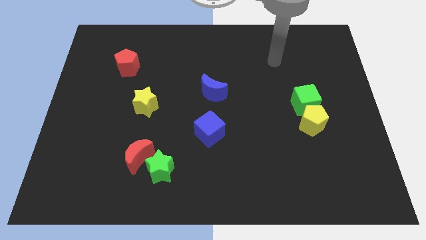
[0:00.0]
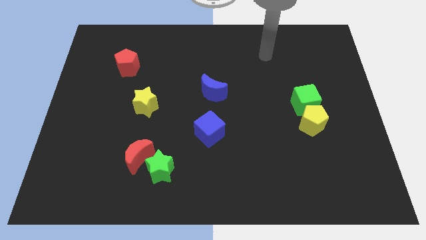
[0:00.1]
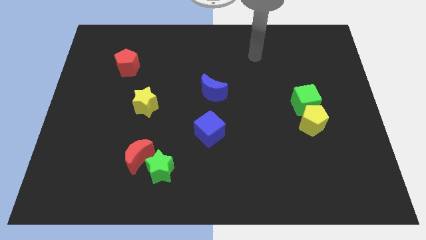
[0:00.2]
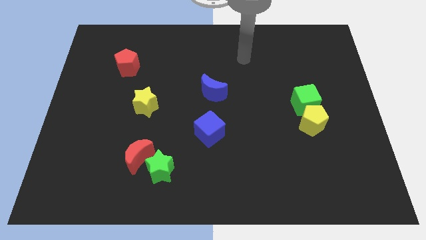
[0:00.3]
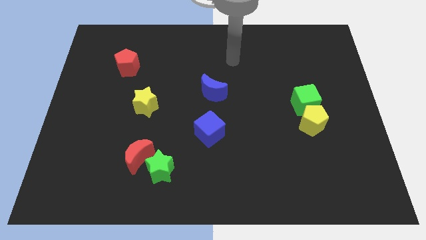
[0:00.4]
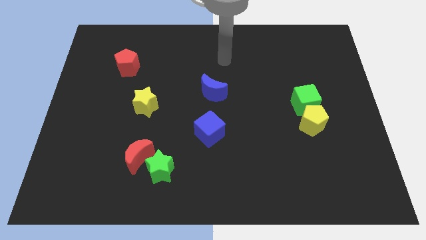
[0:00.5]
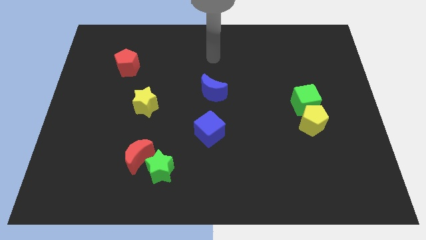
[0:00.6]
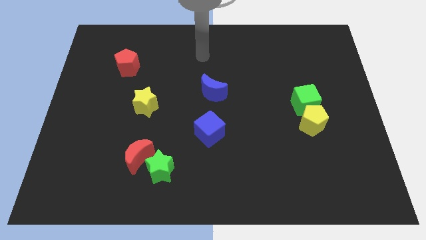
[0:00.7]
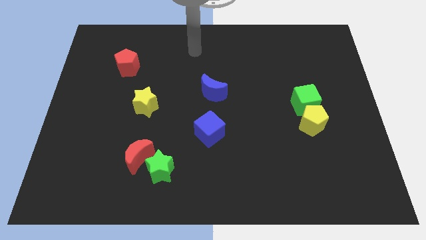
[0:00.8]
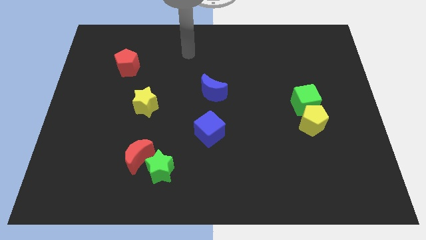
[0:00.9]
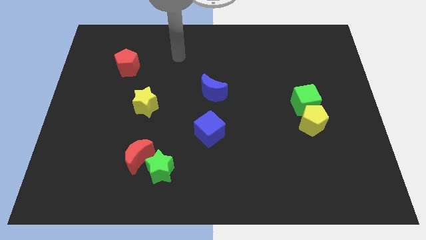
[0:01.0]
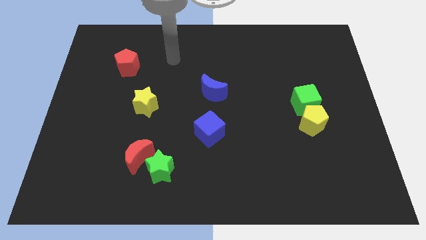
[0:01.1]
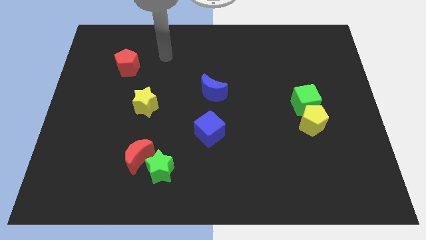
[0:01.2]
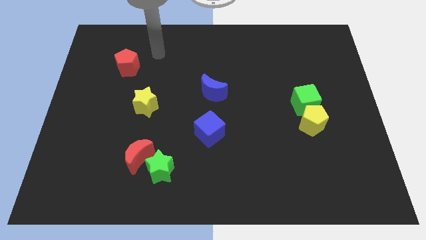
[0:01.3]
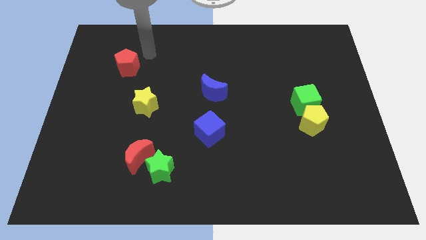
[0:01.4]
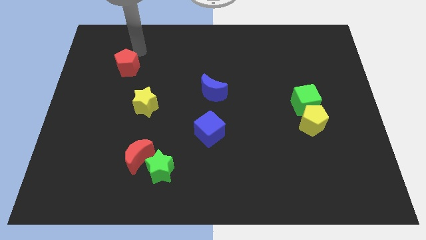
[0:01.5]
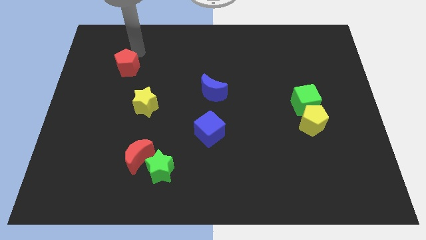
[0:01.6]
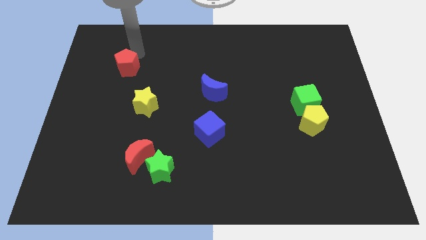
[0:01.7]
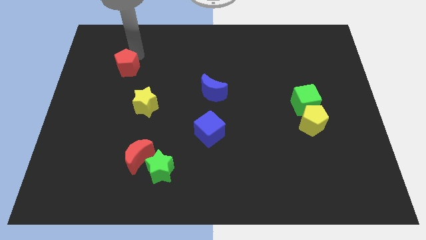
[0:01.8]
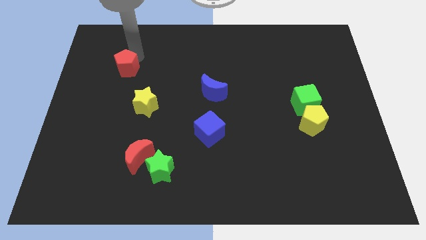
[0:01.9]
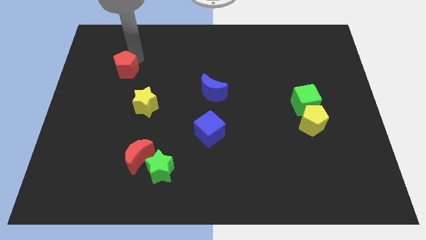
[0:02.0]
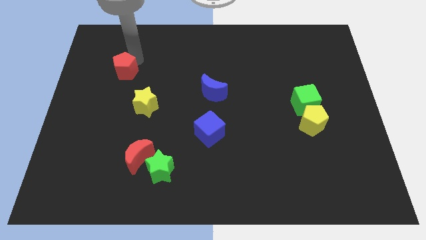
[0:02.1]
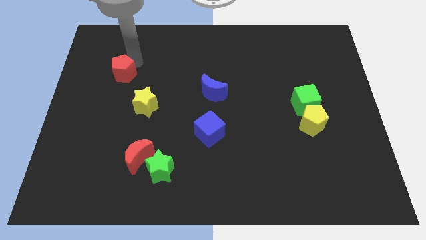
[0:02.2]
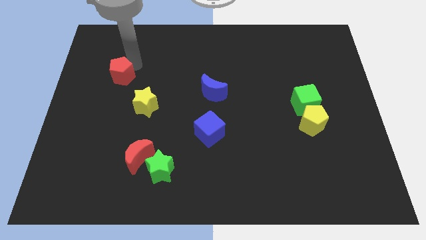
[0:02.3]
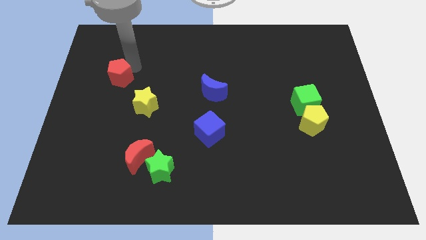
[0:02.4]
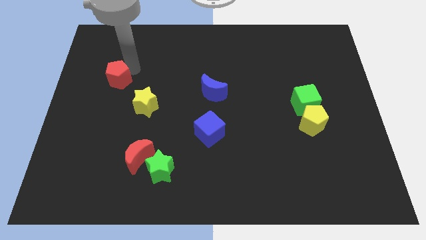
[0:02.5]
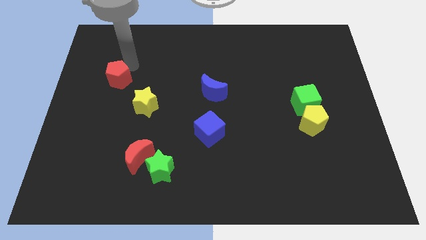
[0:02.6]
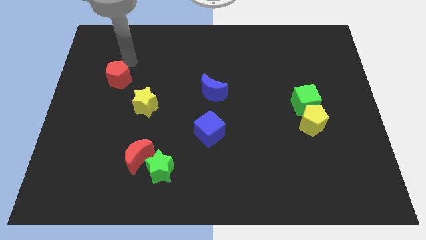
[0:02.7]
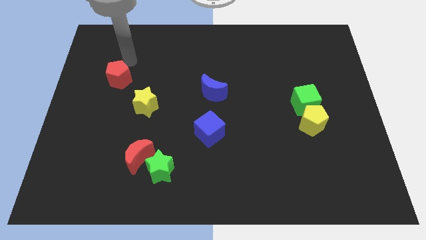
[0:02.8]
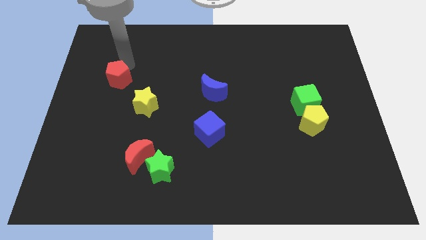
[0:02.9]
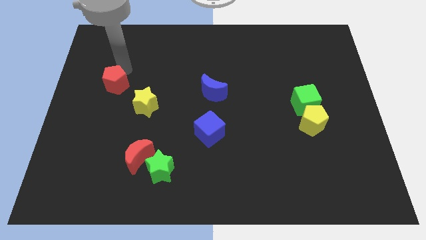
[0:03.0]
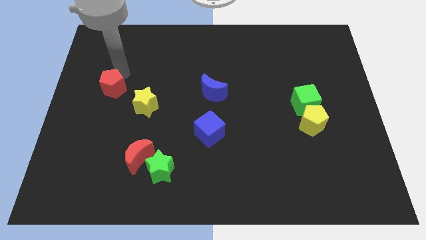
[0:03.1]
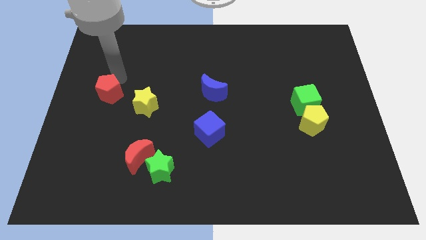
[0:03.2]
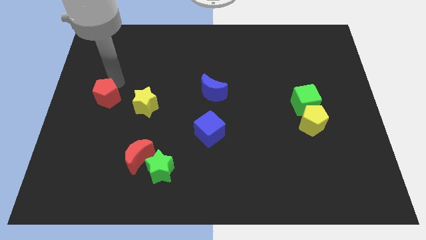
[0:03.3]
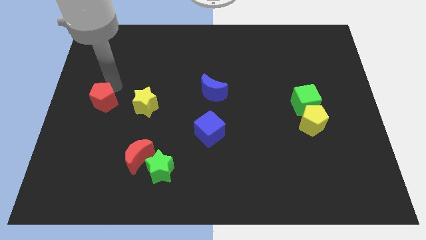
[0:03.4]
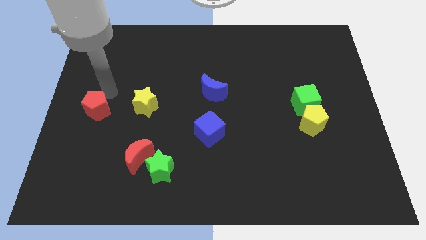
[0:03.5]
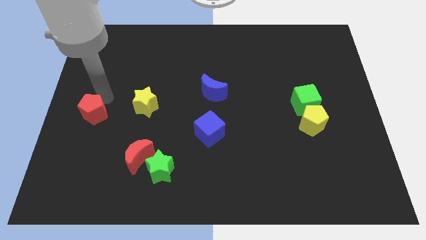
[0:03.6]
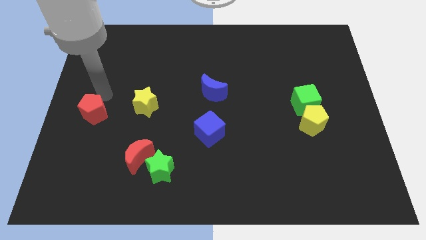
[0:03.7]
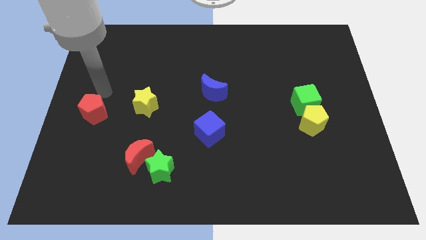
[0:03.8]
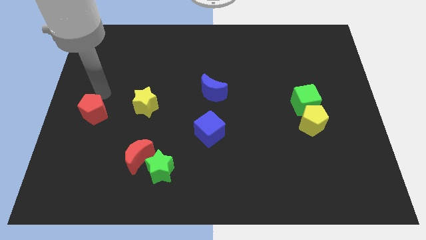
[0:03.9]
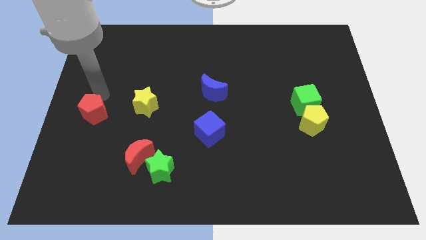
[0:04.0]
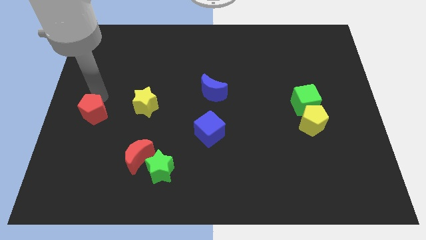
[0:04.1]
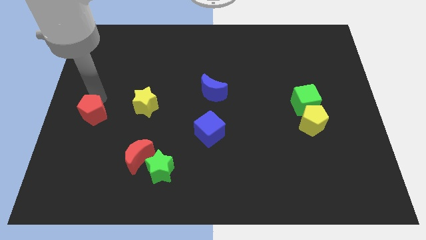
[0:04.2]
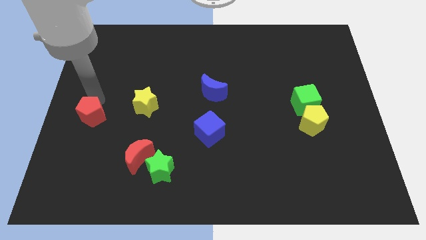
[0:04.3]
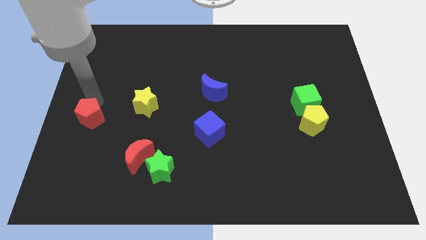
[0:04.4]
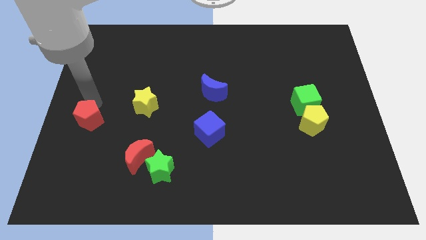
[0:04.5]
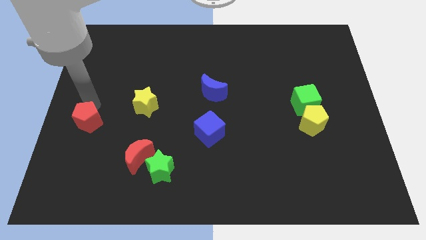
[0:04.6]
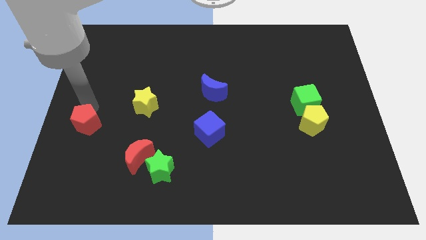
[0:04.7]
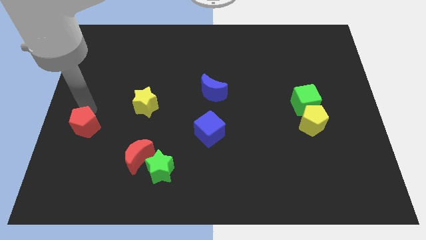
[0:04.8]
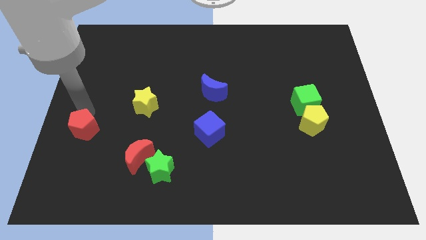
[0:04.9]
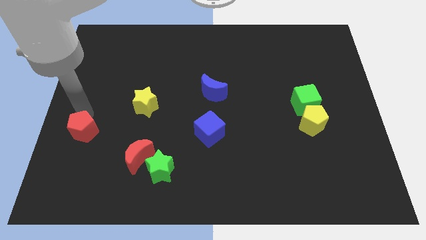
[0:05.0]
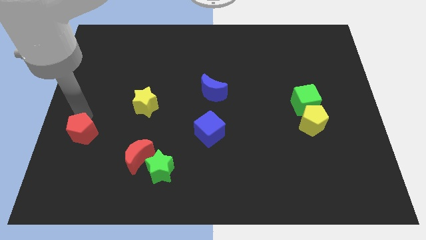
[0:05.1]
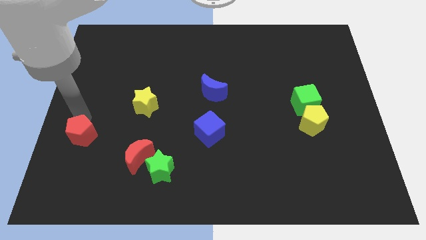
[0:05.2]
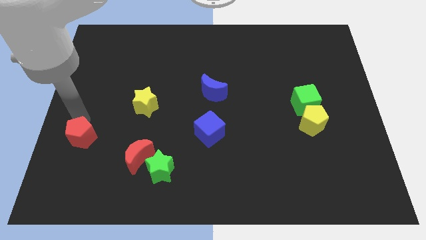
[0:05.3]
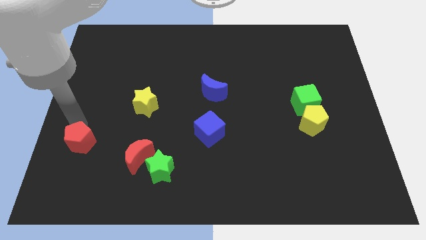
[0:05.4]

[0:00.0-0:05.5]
move the red pentagon downwards

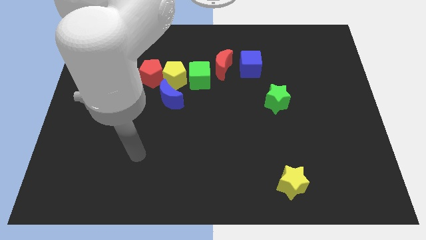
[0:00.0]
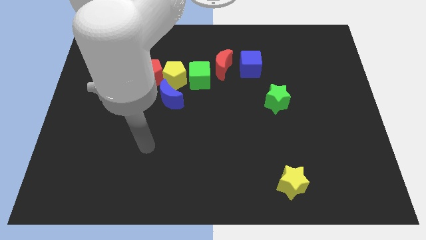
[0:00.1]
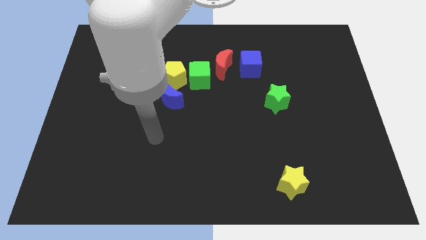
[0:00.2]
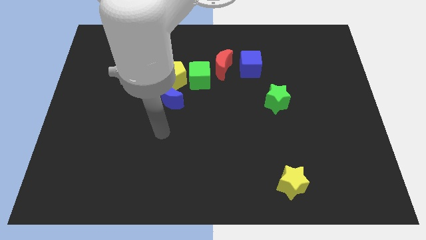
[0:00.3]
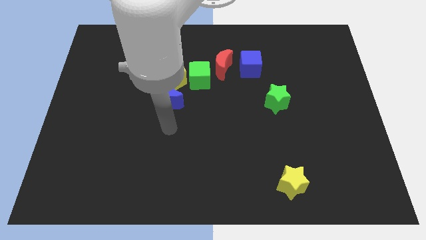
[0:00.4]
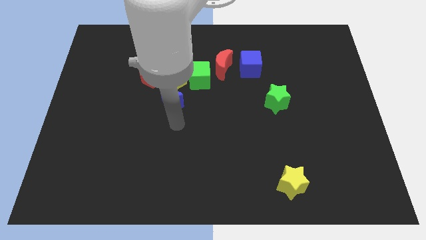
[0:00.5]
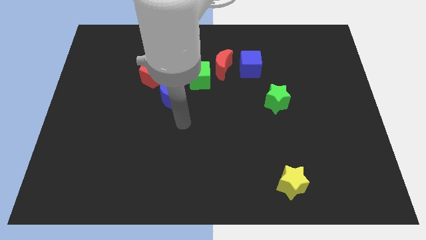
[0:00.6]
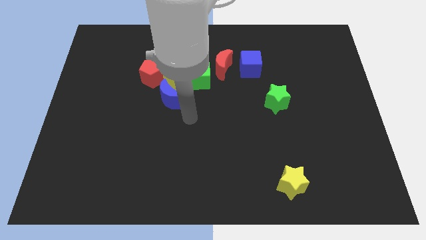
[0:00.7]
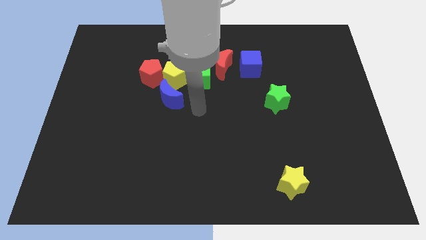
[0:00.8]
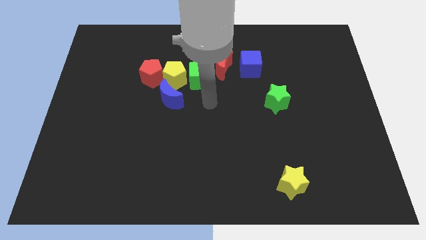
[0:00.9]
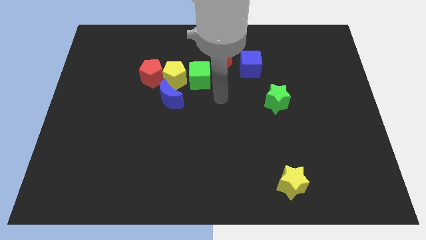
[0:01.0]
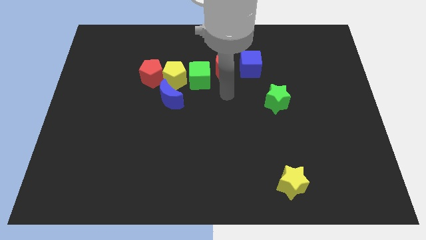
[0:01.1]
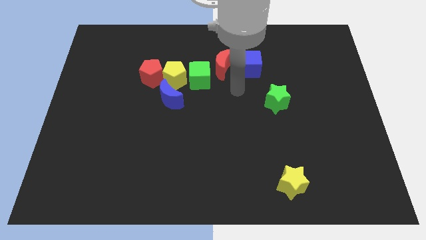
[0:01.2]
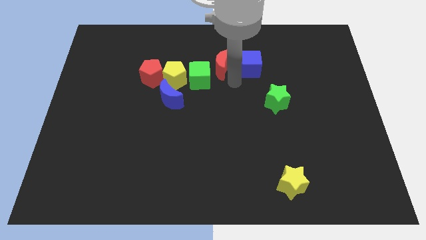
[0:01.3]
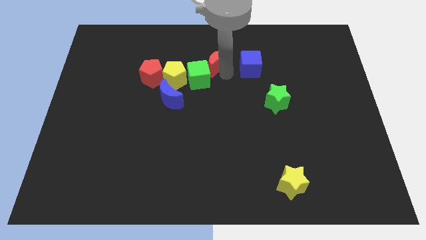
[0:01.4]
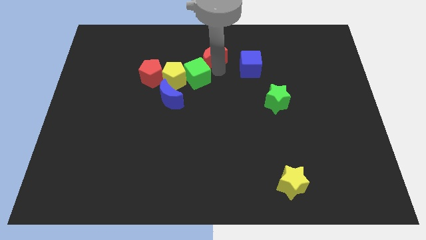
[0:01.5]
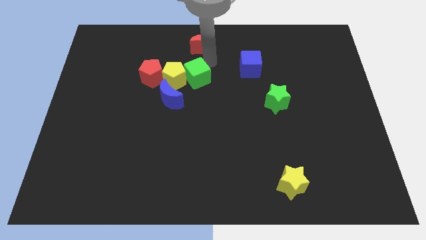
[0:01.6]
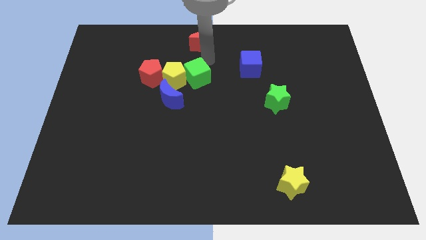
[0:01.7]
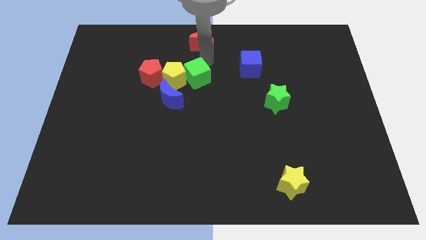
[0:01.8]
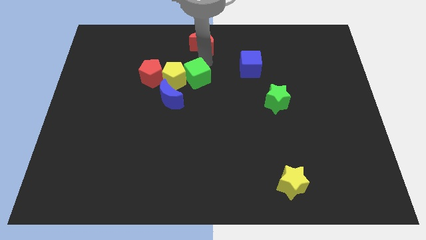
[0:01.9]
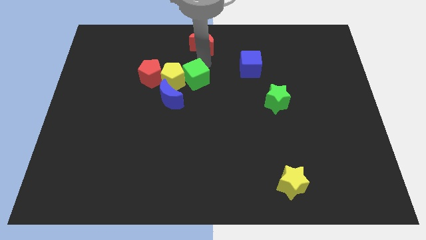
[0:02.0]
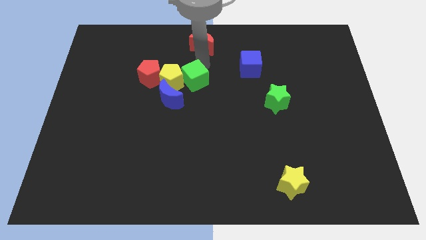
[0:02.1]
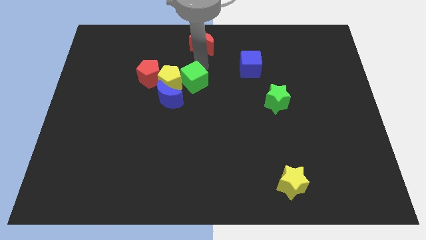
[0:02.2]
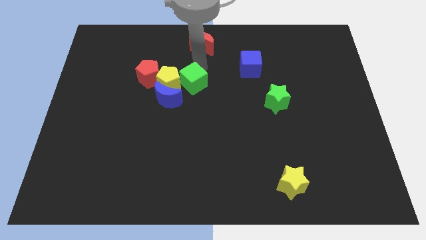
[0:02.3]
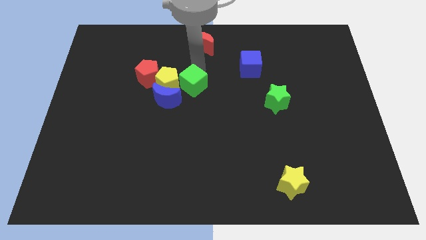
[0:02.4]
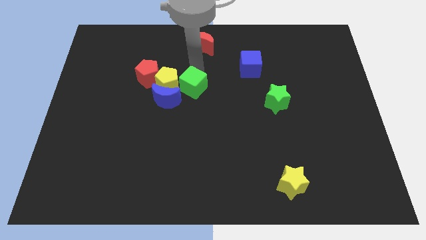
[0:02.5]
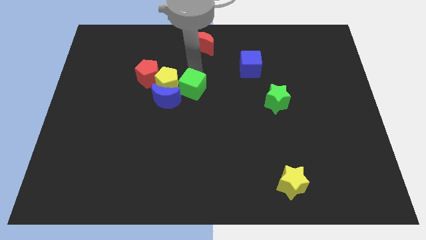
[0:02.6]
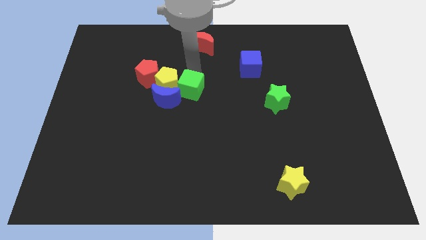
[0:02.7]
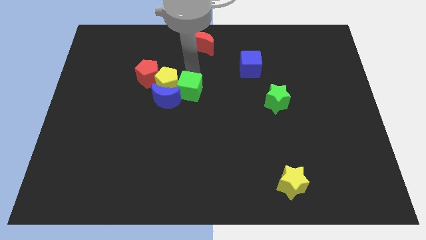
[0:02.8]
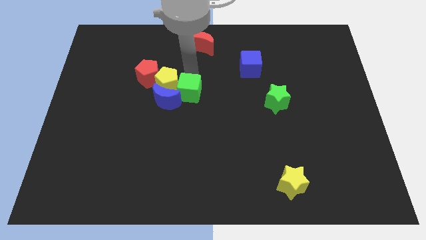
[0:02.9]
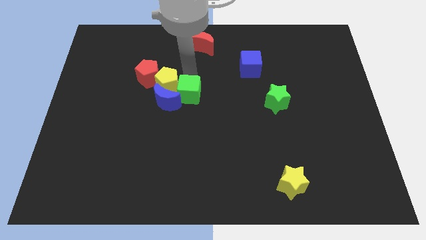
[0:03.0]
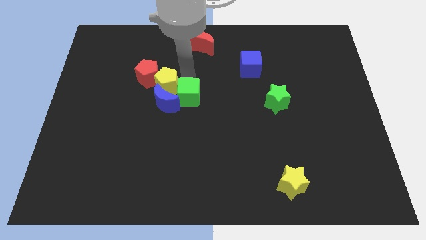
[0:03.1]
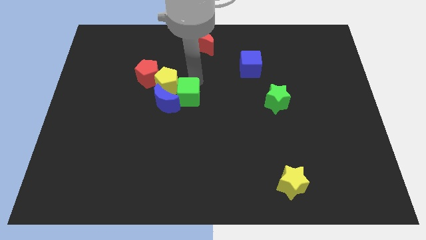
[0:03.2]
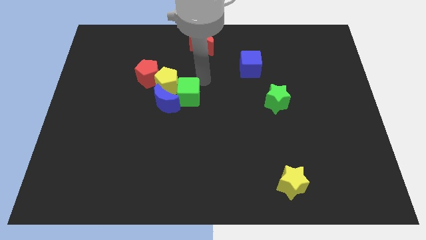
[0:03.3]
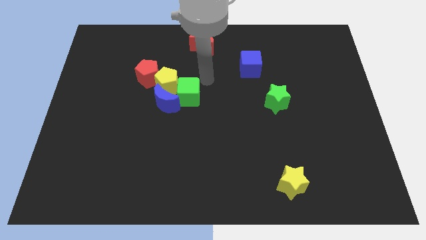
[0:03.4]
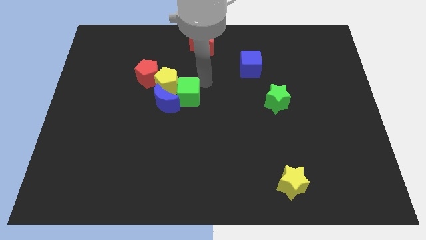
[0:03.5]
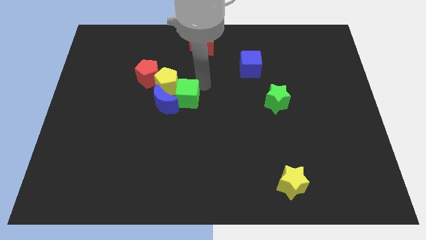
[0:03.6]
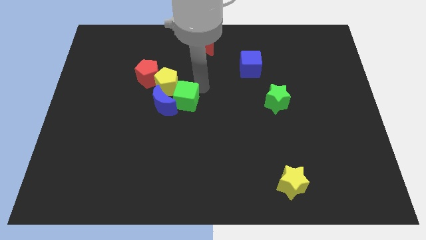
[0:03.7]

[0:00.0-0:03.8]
slightly push the green cube down and left diagonally
